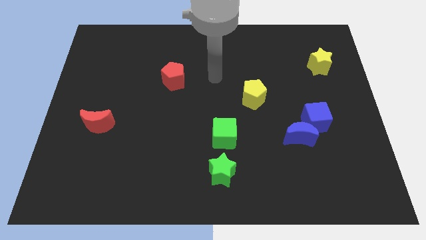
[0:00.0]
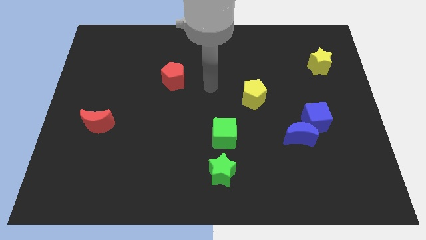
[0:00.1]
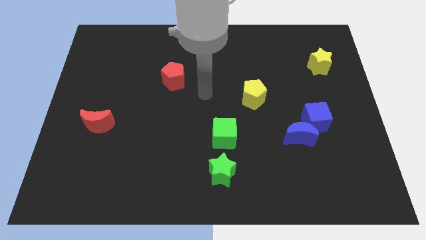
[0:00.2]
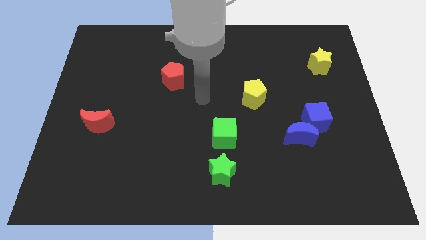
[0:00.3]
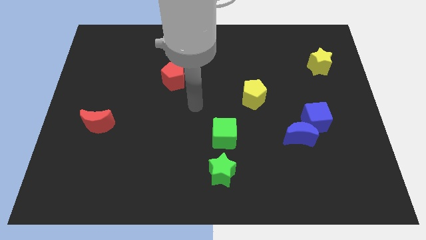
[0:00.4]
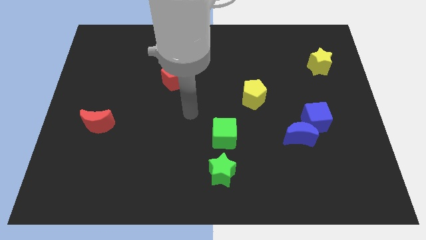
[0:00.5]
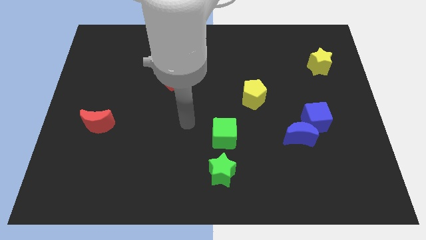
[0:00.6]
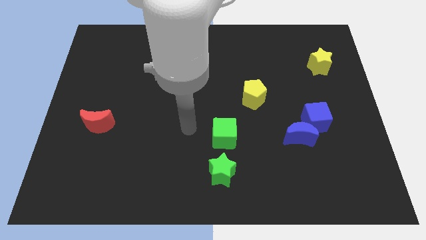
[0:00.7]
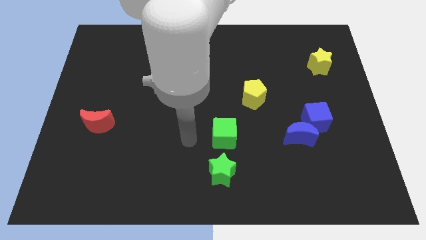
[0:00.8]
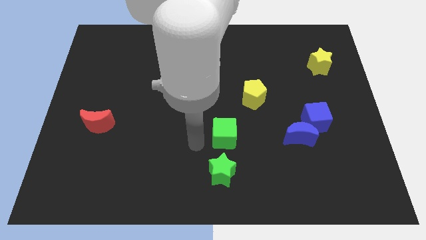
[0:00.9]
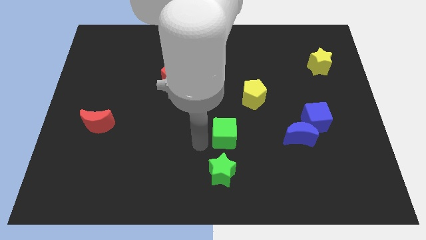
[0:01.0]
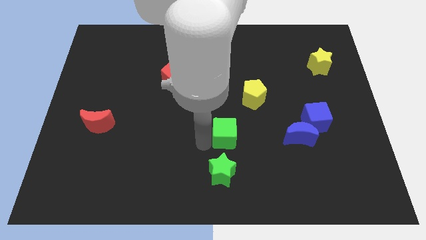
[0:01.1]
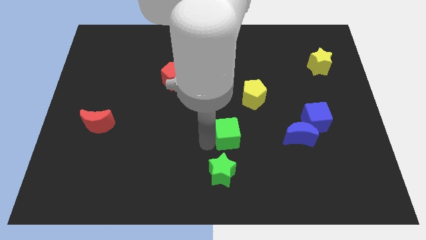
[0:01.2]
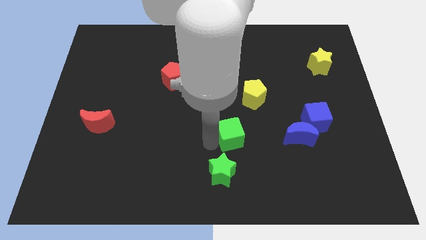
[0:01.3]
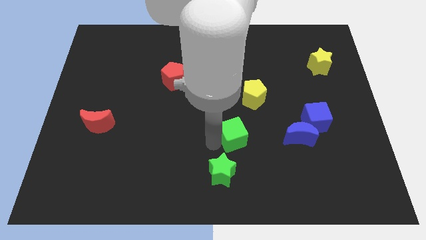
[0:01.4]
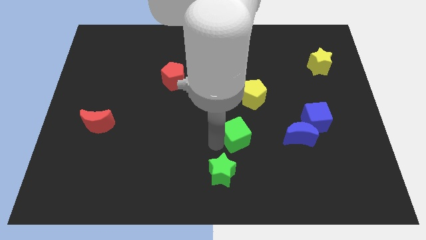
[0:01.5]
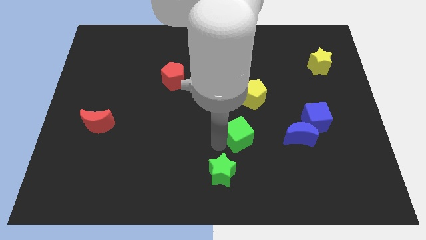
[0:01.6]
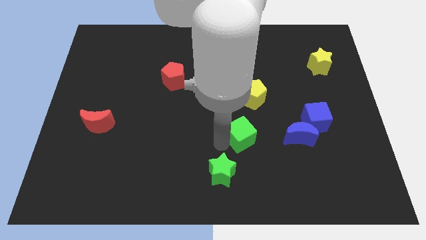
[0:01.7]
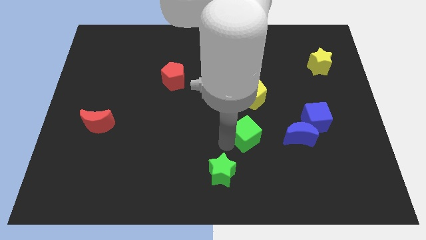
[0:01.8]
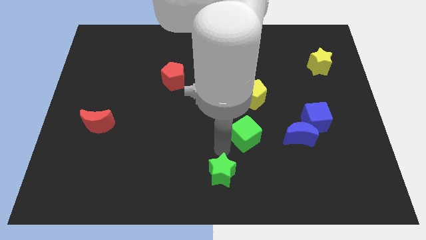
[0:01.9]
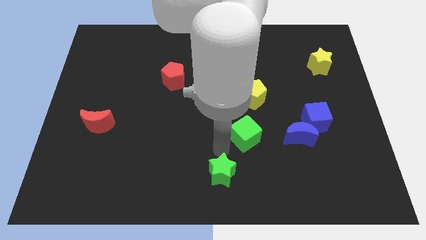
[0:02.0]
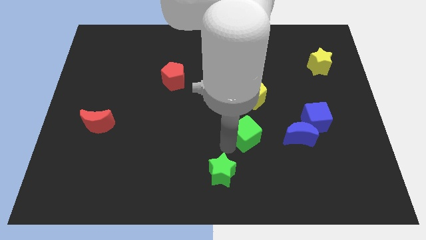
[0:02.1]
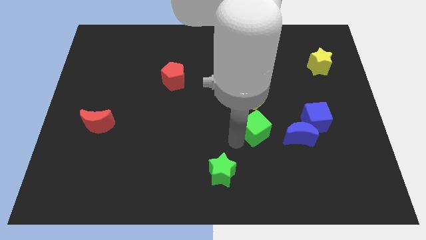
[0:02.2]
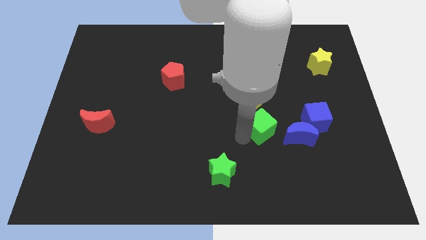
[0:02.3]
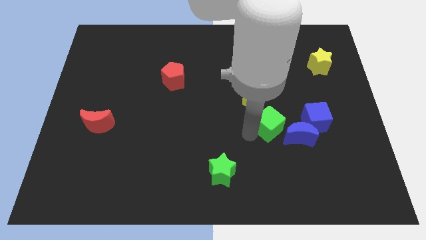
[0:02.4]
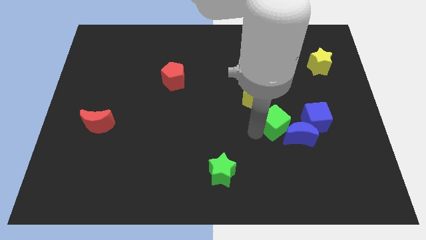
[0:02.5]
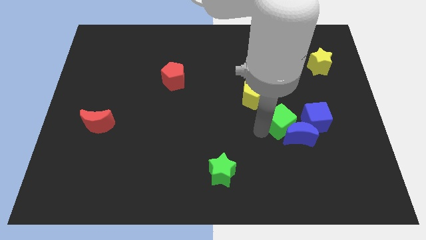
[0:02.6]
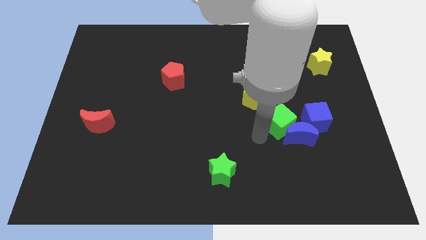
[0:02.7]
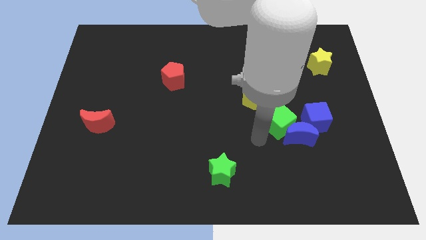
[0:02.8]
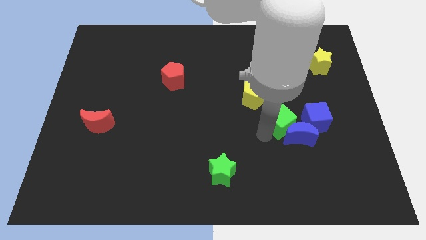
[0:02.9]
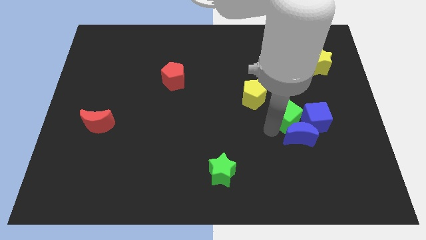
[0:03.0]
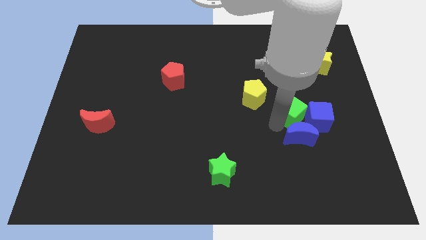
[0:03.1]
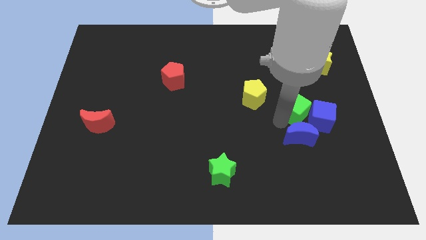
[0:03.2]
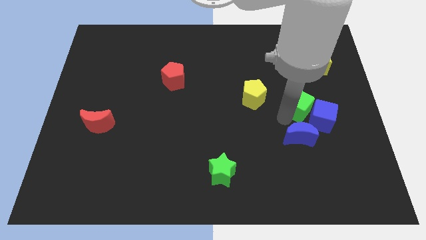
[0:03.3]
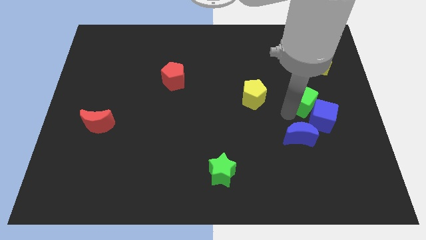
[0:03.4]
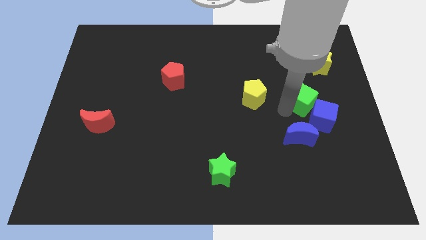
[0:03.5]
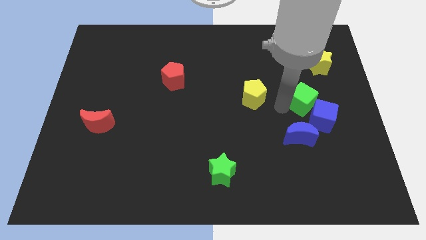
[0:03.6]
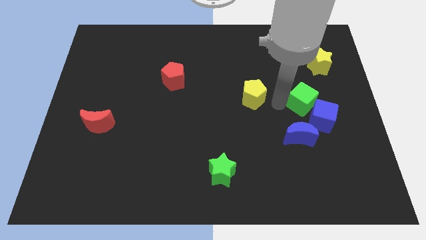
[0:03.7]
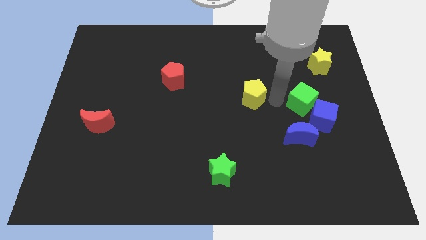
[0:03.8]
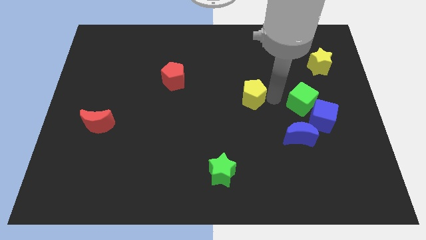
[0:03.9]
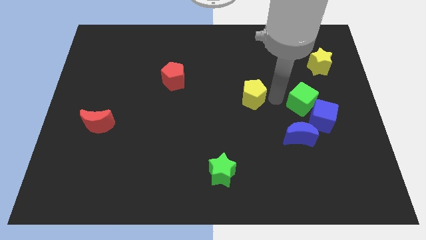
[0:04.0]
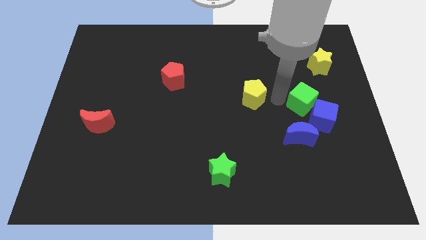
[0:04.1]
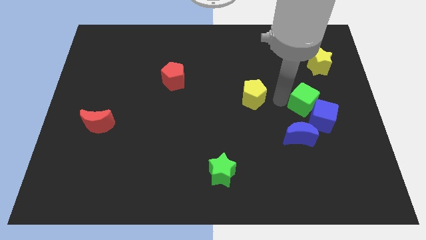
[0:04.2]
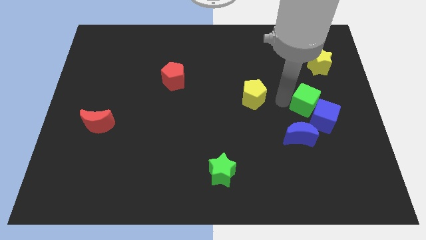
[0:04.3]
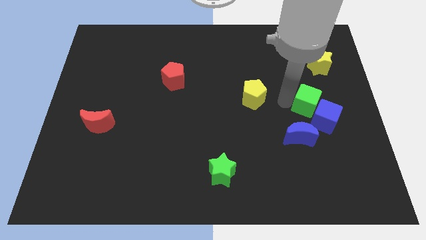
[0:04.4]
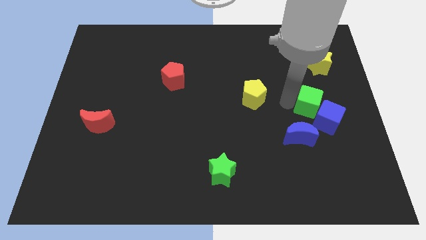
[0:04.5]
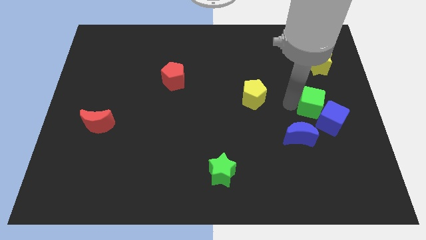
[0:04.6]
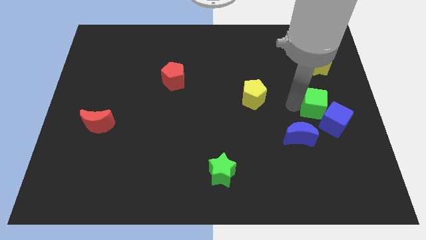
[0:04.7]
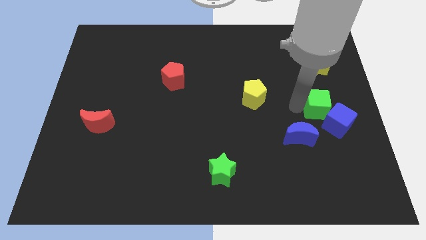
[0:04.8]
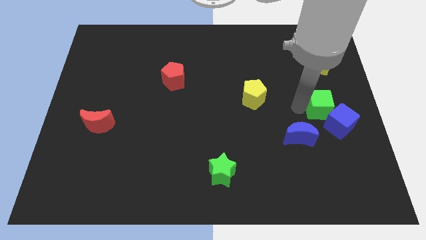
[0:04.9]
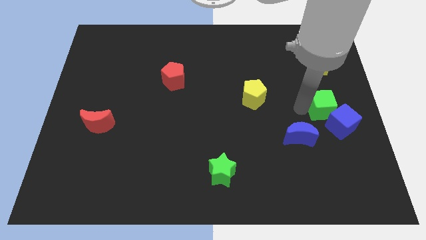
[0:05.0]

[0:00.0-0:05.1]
slide the green cube to the center right

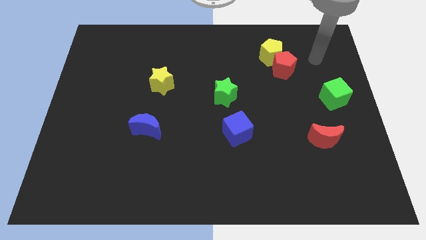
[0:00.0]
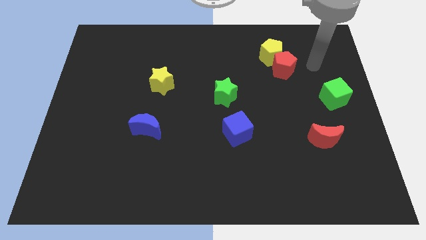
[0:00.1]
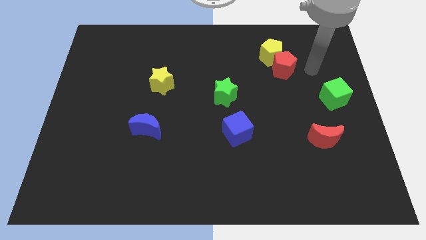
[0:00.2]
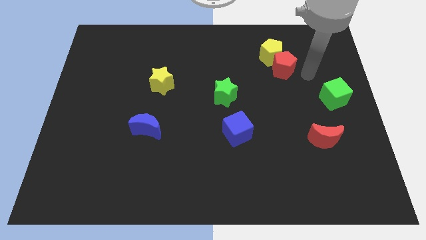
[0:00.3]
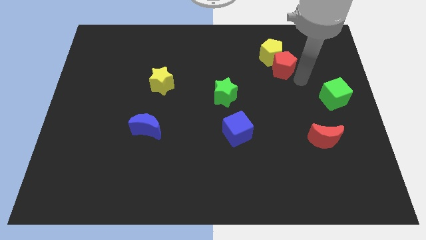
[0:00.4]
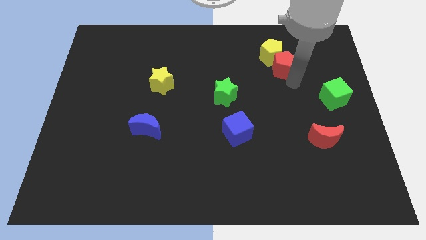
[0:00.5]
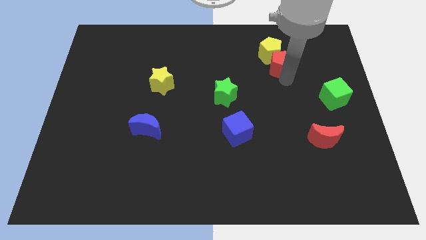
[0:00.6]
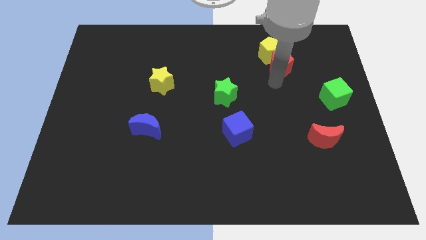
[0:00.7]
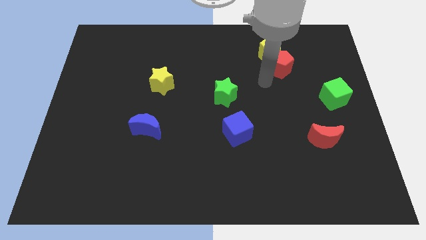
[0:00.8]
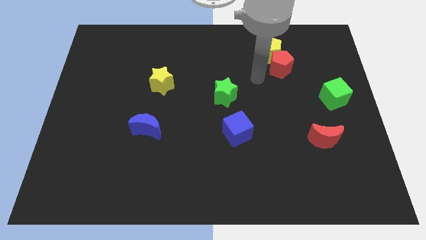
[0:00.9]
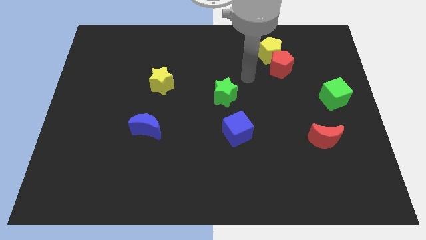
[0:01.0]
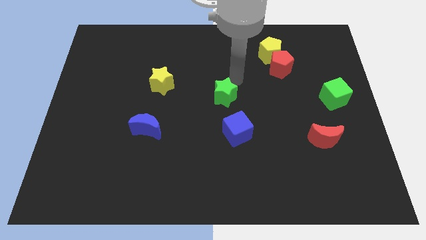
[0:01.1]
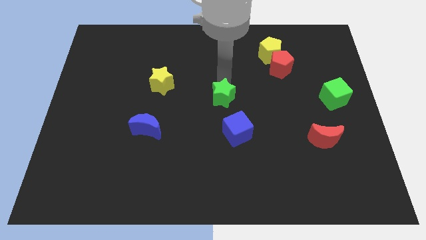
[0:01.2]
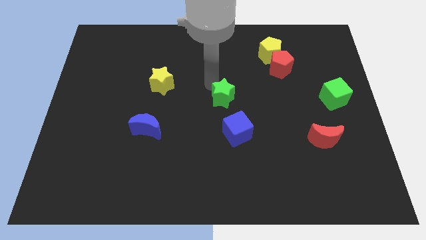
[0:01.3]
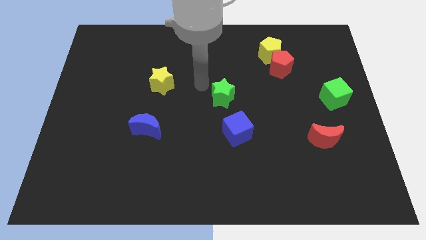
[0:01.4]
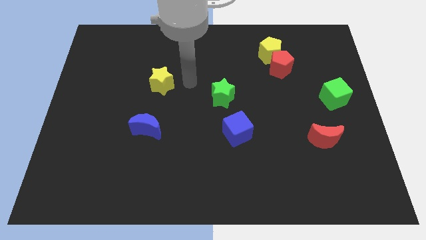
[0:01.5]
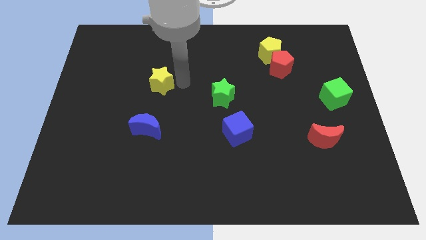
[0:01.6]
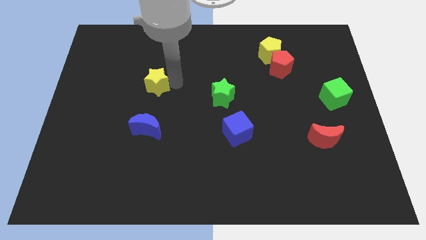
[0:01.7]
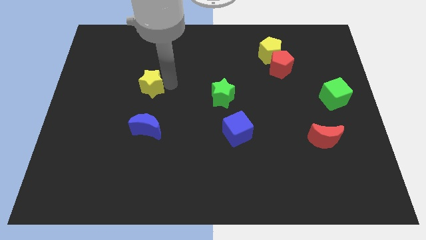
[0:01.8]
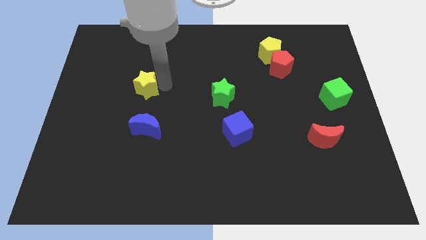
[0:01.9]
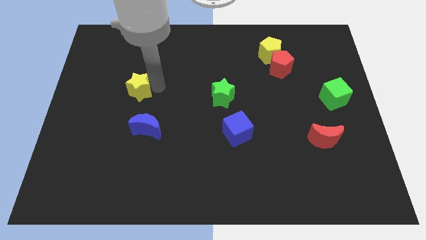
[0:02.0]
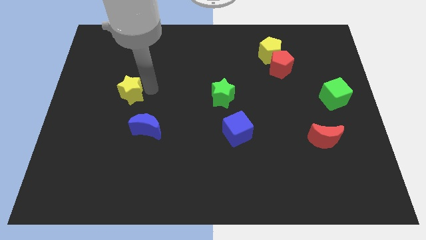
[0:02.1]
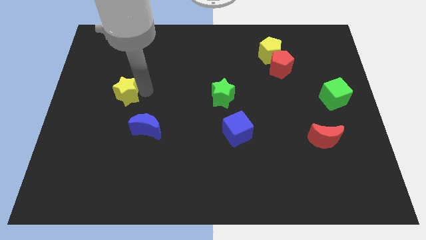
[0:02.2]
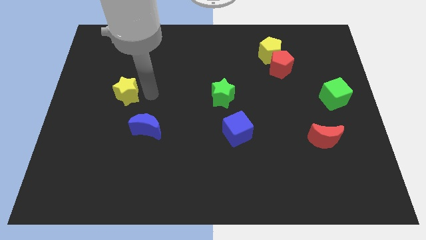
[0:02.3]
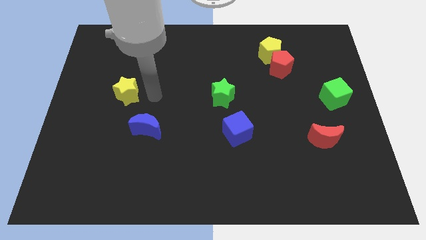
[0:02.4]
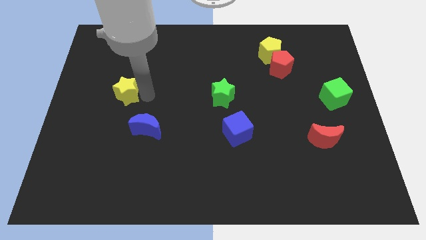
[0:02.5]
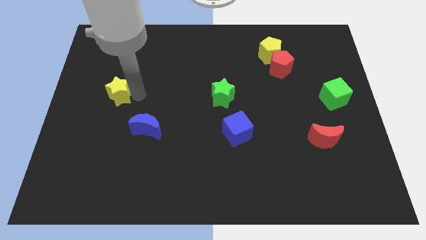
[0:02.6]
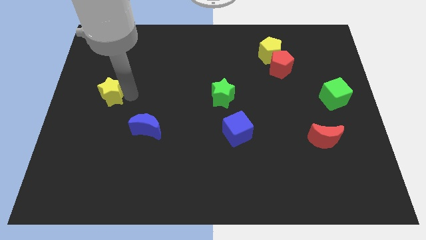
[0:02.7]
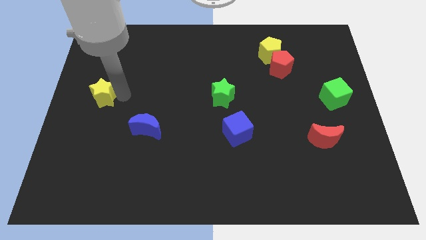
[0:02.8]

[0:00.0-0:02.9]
slide the yellow star to the left side of the board
